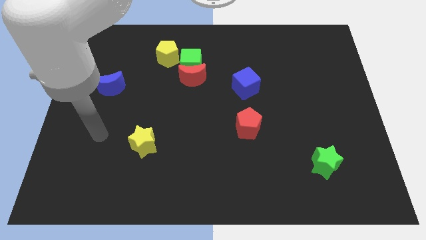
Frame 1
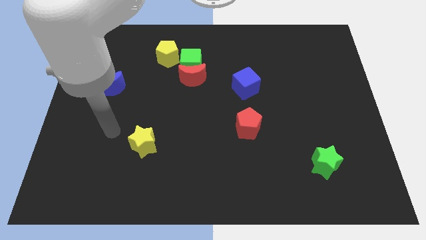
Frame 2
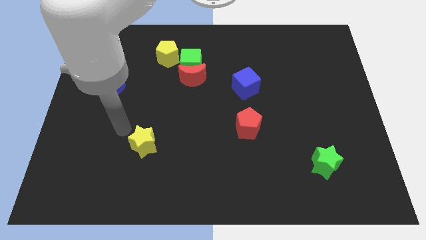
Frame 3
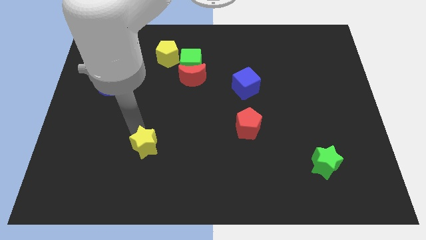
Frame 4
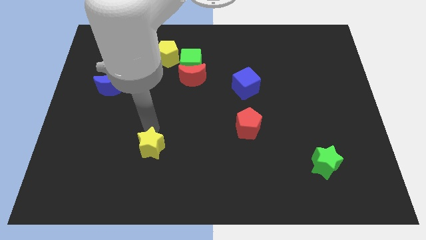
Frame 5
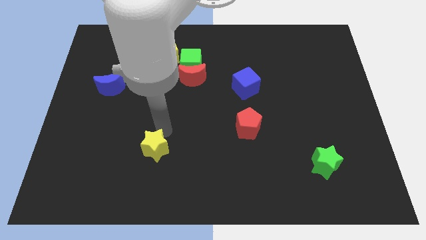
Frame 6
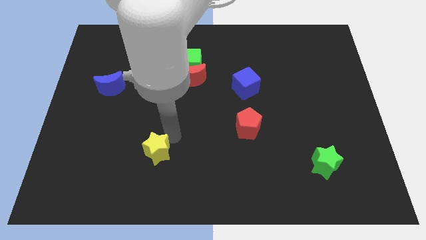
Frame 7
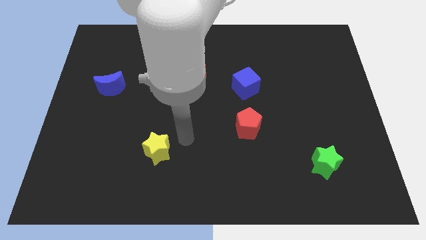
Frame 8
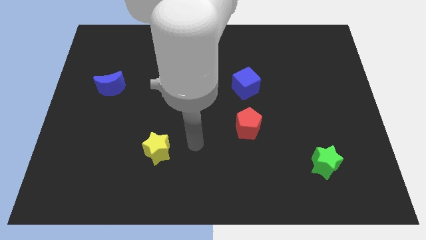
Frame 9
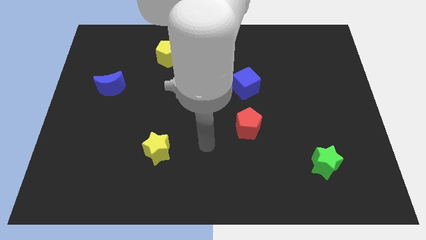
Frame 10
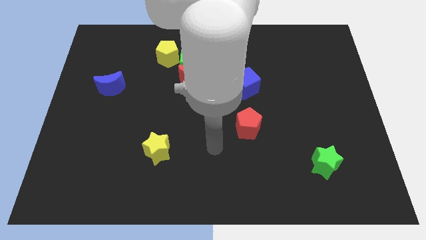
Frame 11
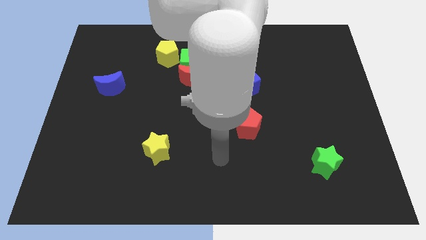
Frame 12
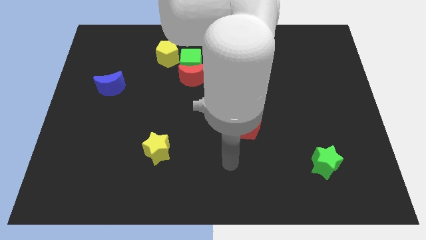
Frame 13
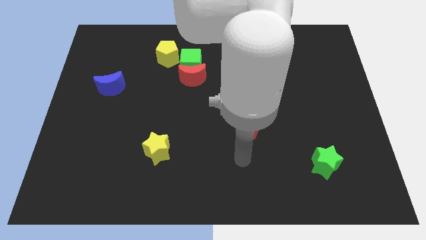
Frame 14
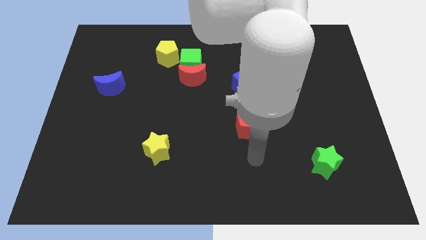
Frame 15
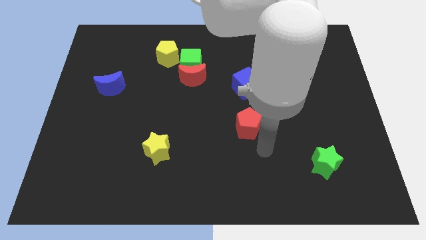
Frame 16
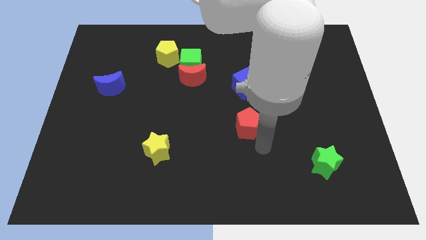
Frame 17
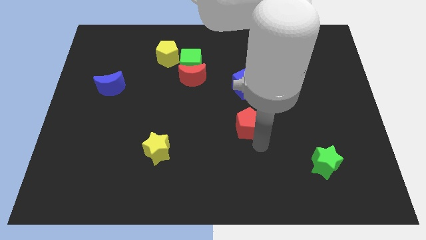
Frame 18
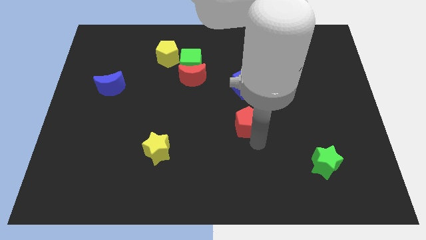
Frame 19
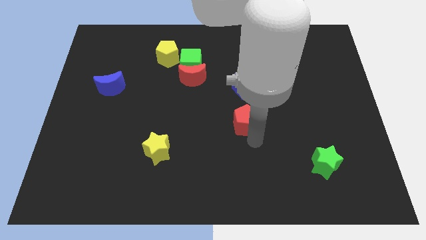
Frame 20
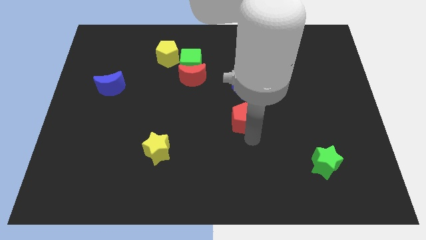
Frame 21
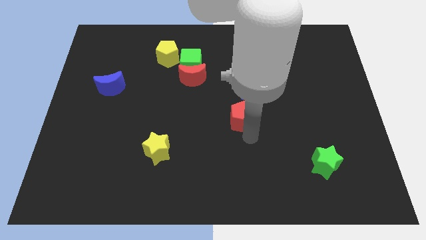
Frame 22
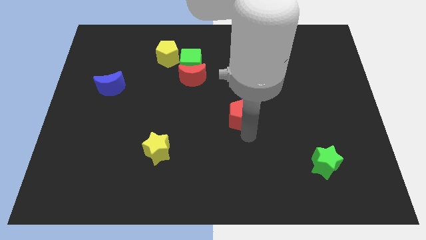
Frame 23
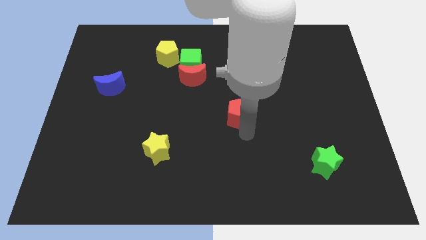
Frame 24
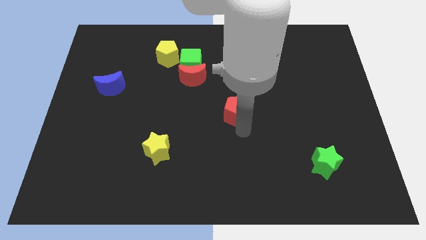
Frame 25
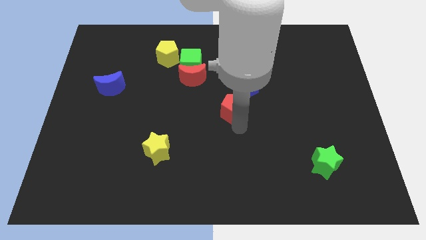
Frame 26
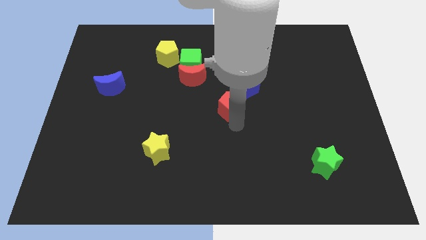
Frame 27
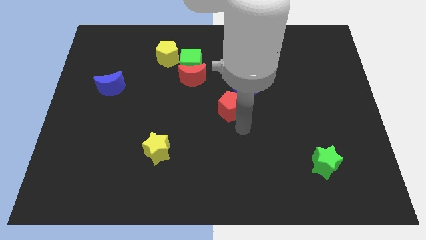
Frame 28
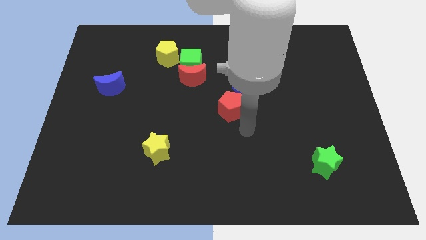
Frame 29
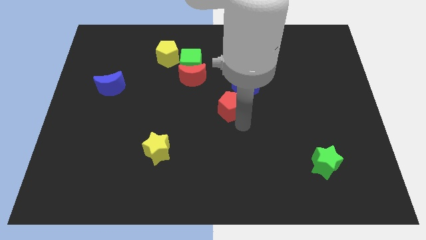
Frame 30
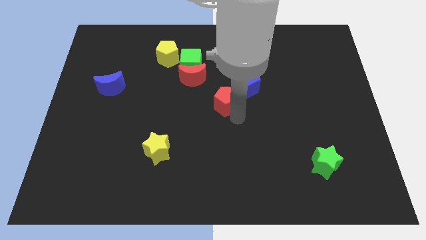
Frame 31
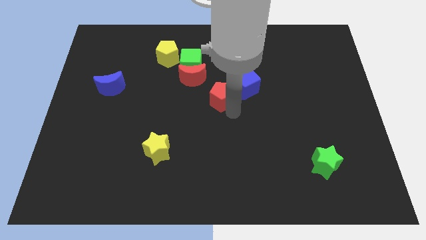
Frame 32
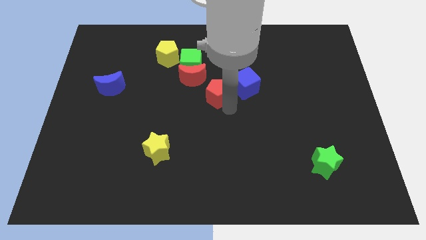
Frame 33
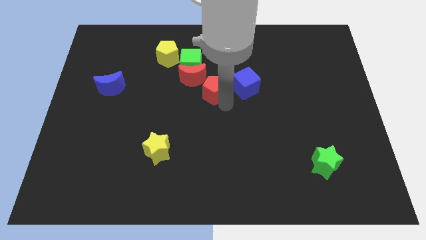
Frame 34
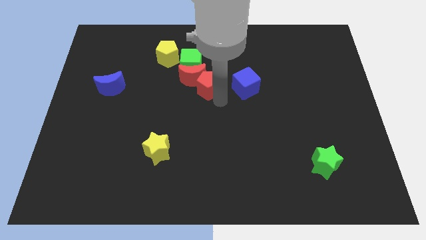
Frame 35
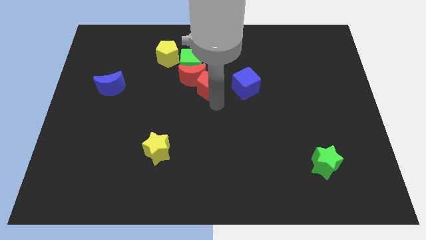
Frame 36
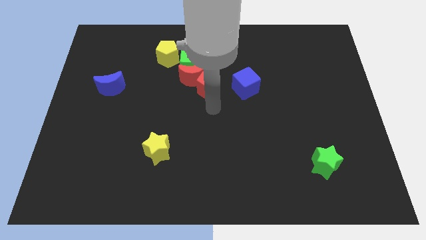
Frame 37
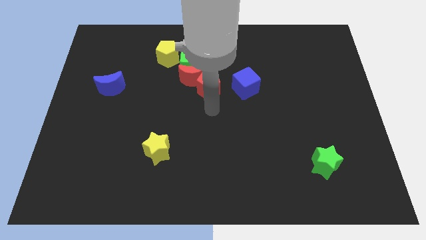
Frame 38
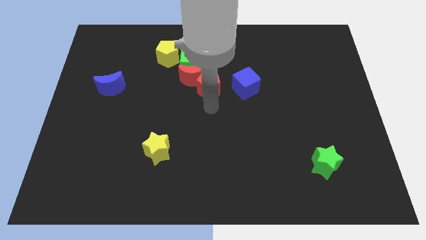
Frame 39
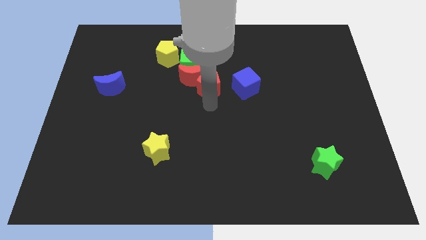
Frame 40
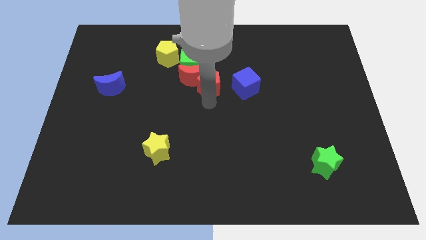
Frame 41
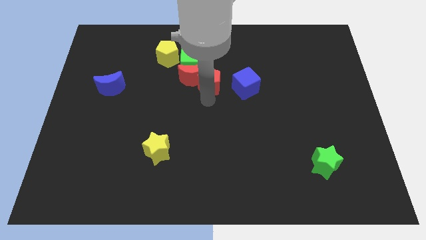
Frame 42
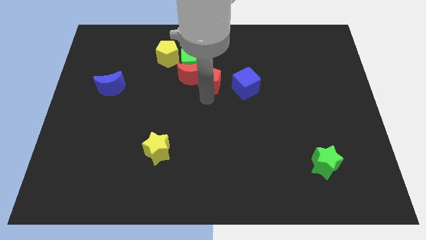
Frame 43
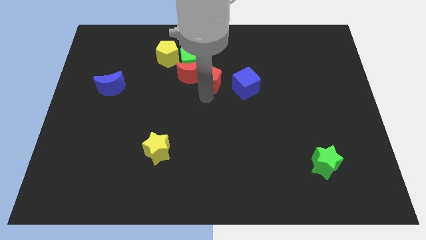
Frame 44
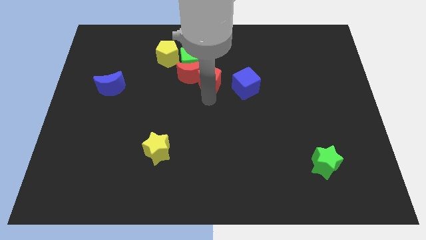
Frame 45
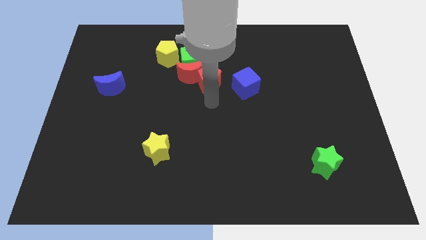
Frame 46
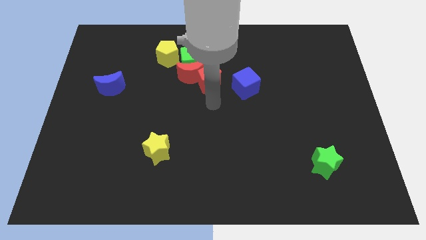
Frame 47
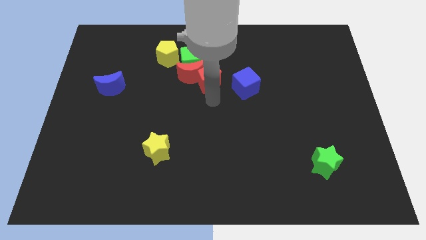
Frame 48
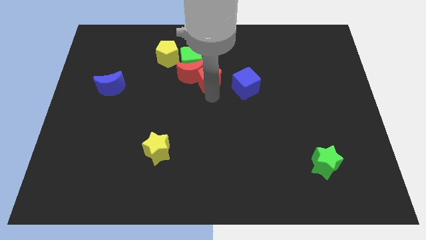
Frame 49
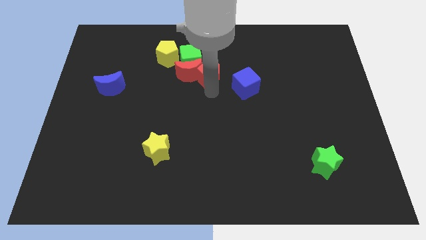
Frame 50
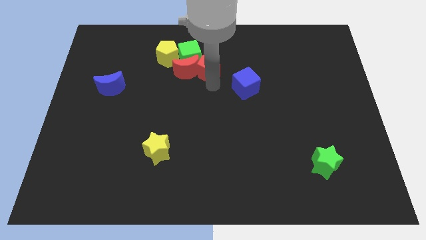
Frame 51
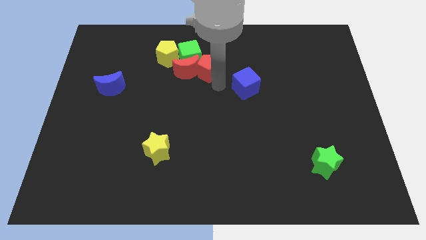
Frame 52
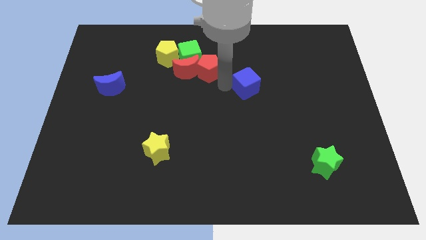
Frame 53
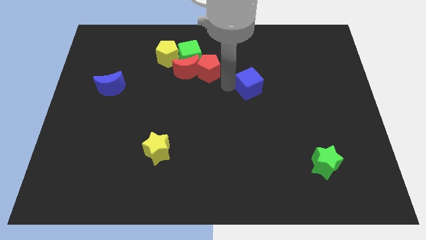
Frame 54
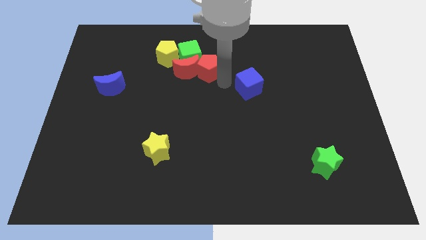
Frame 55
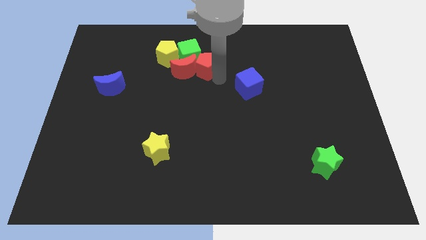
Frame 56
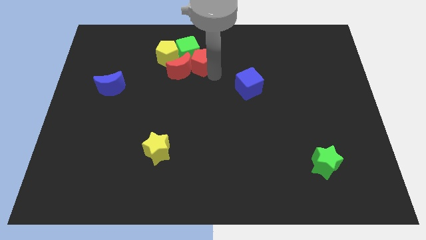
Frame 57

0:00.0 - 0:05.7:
push the red pentagon close to the green cube
